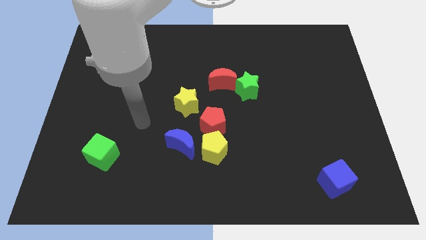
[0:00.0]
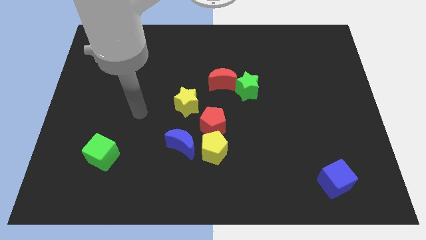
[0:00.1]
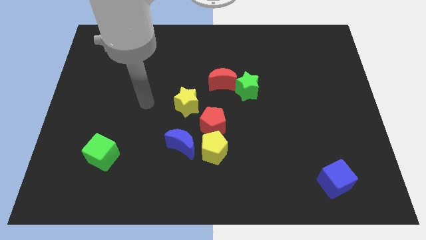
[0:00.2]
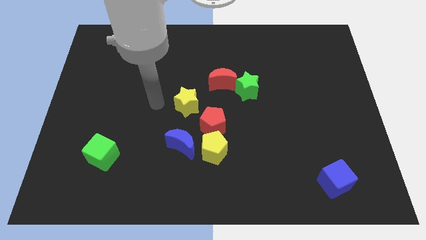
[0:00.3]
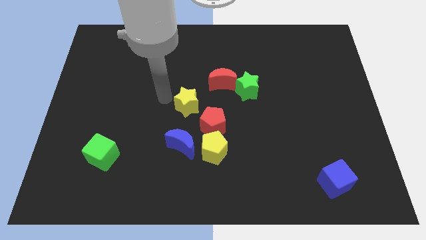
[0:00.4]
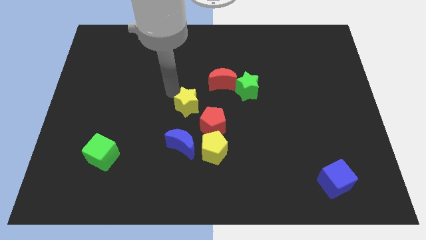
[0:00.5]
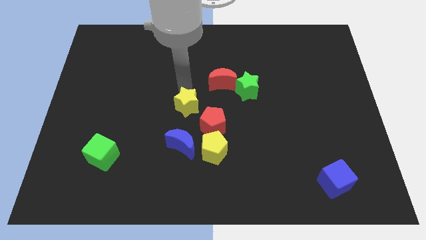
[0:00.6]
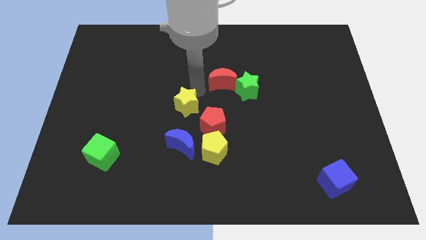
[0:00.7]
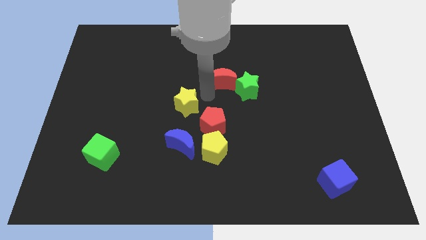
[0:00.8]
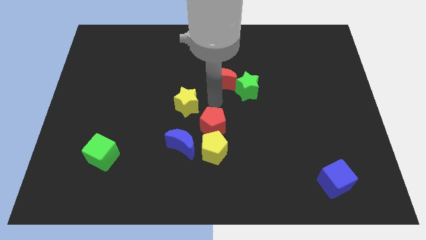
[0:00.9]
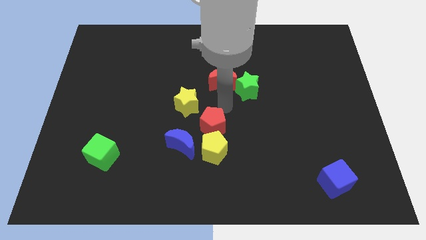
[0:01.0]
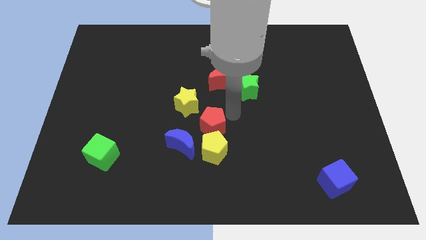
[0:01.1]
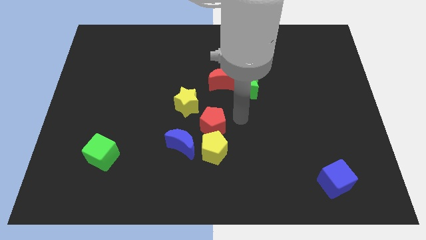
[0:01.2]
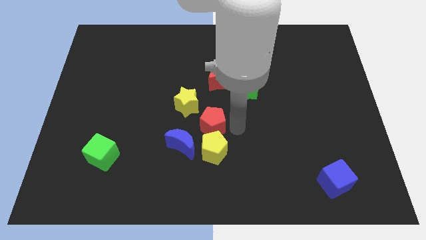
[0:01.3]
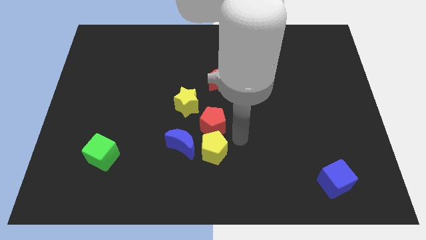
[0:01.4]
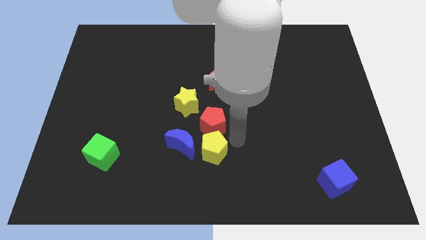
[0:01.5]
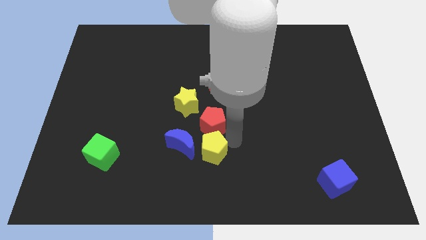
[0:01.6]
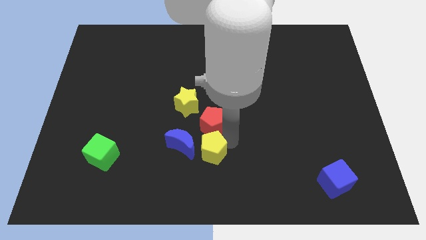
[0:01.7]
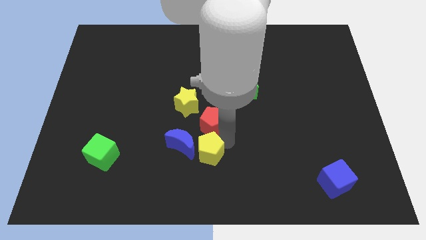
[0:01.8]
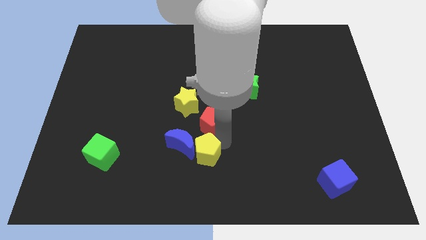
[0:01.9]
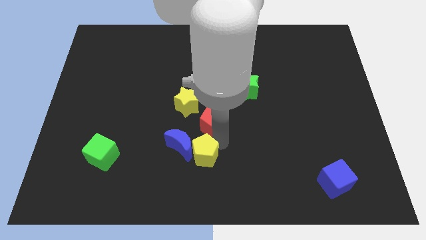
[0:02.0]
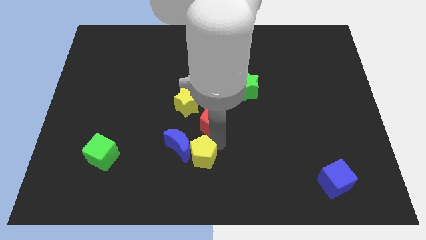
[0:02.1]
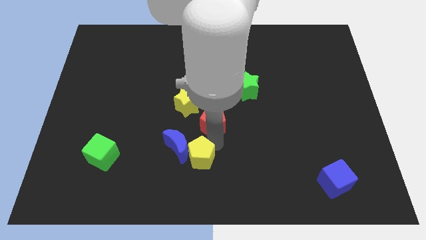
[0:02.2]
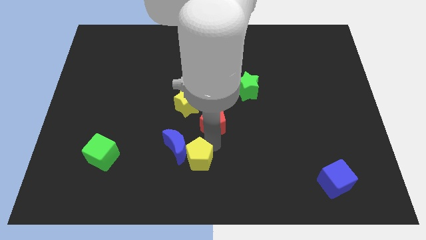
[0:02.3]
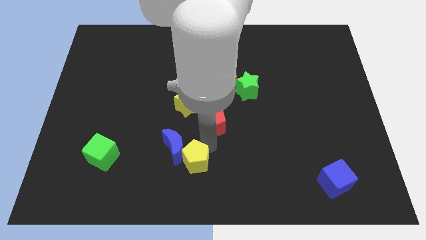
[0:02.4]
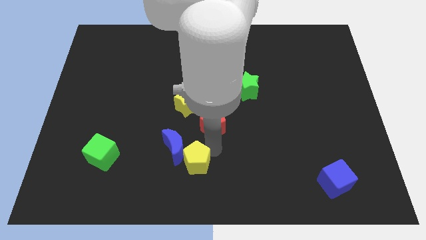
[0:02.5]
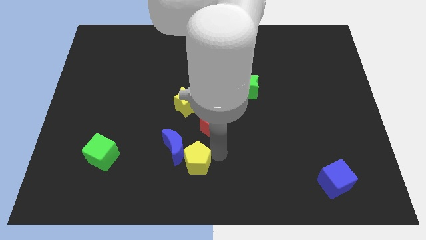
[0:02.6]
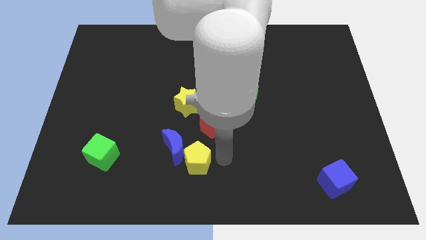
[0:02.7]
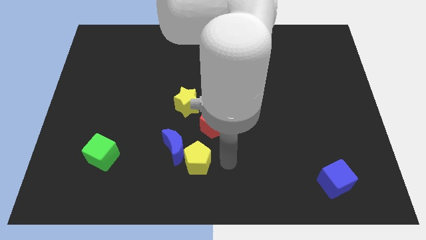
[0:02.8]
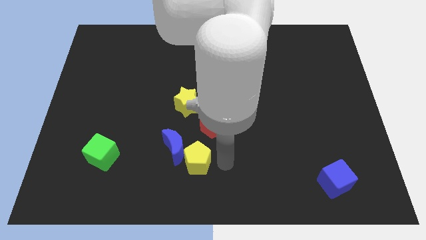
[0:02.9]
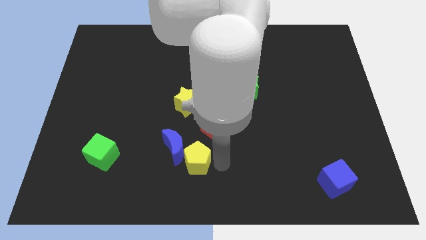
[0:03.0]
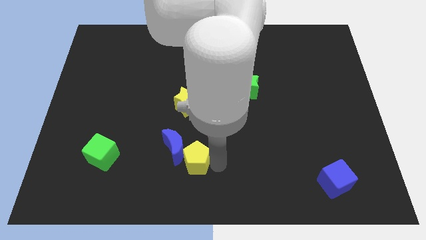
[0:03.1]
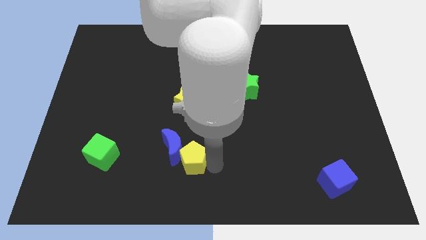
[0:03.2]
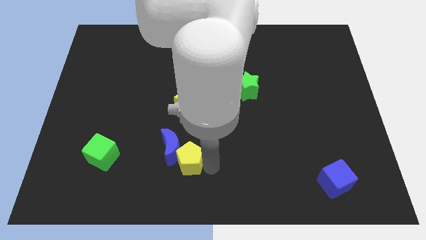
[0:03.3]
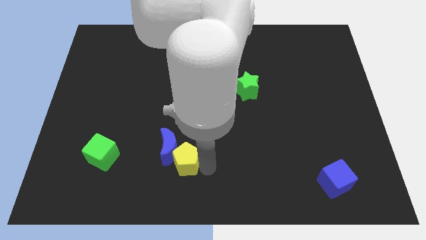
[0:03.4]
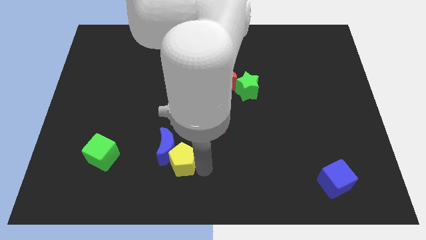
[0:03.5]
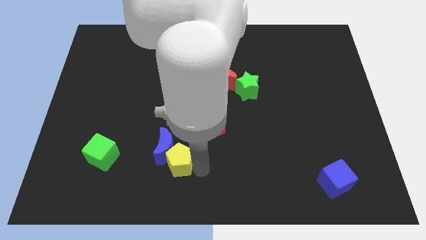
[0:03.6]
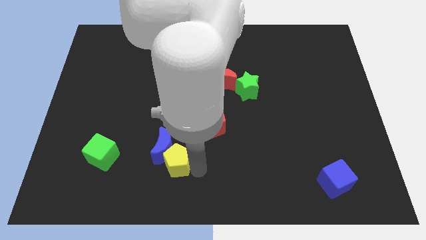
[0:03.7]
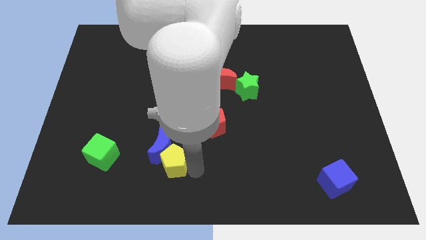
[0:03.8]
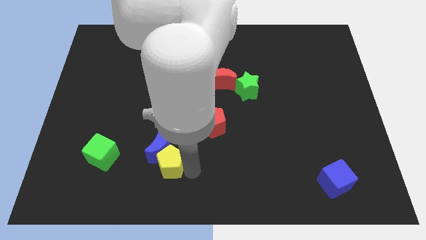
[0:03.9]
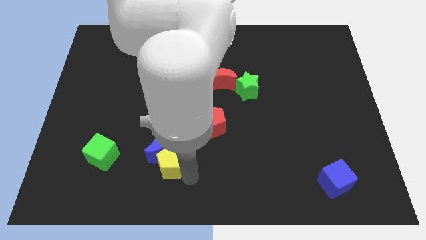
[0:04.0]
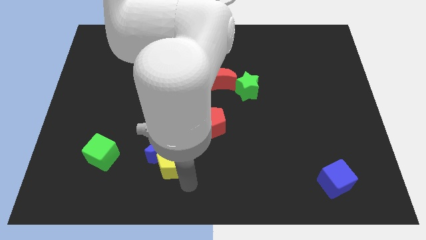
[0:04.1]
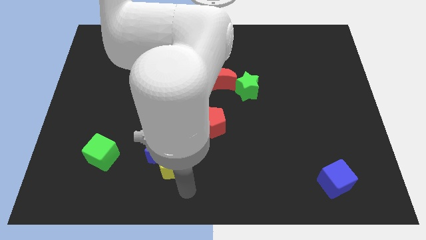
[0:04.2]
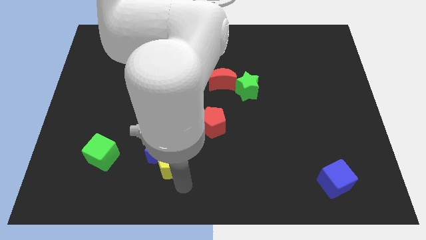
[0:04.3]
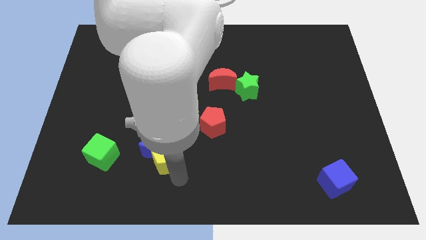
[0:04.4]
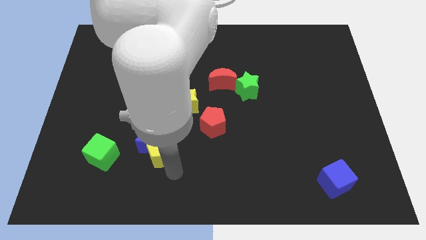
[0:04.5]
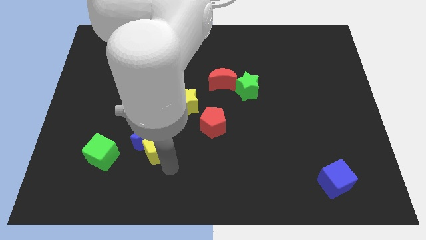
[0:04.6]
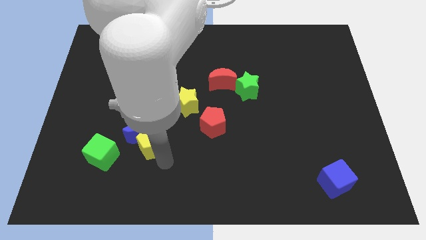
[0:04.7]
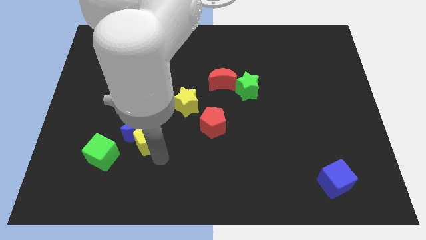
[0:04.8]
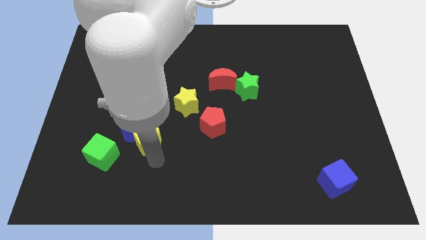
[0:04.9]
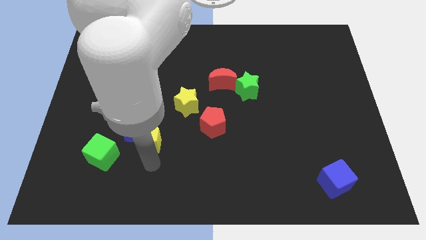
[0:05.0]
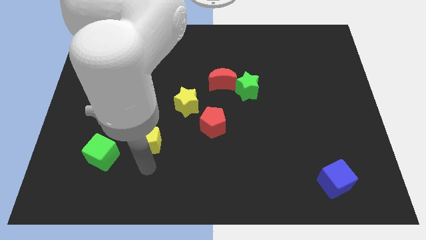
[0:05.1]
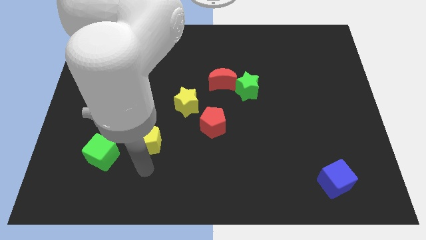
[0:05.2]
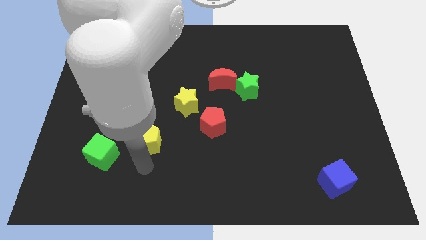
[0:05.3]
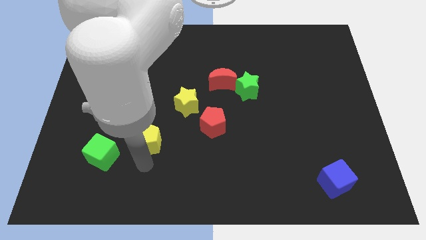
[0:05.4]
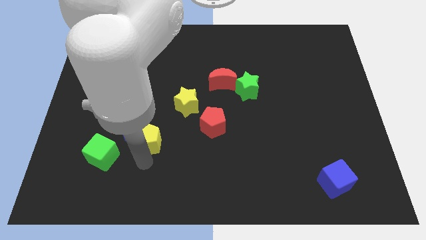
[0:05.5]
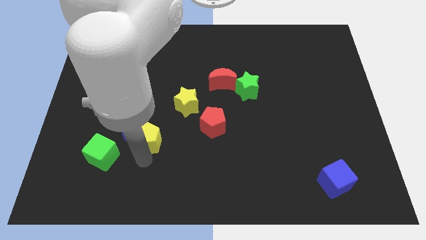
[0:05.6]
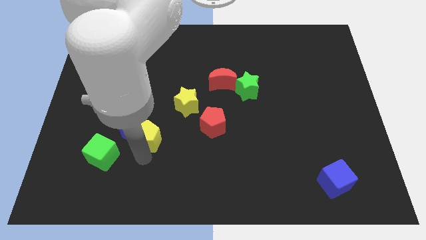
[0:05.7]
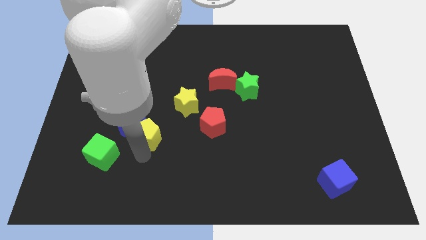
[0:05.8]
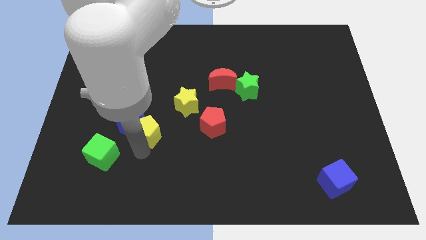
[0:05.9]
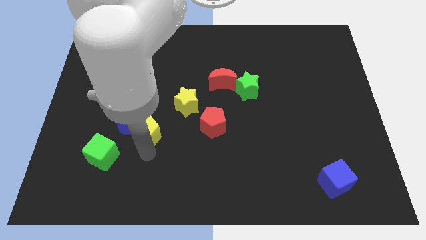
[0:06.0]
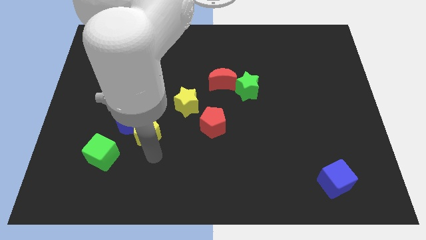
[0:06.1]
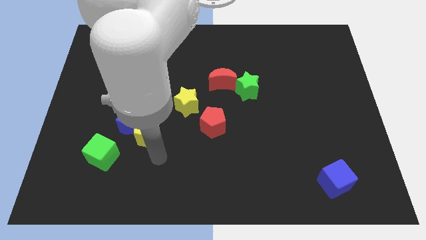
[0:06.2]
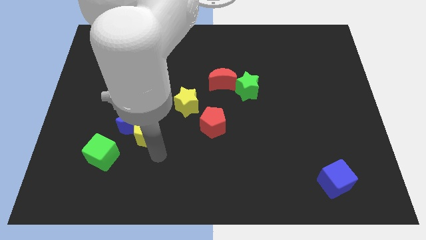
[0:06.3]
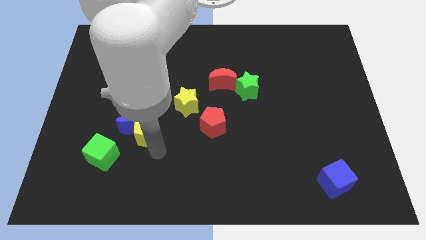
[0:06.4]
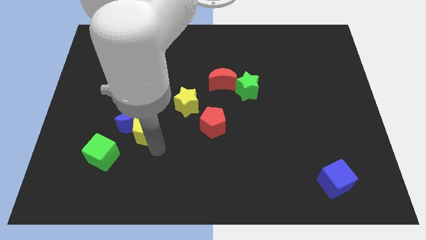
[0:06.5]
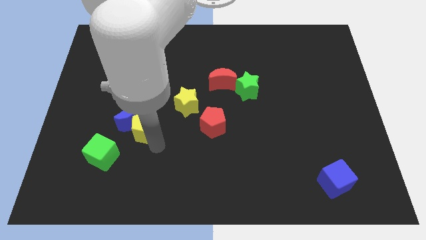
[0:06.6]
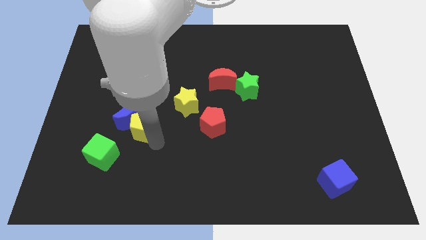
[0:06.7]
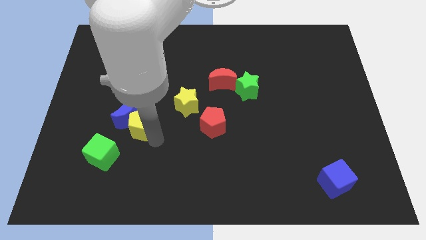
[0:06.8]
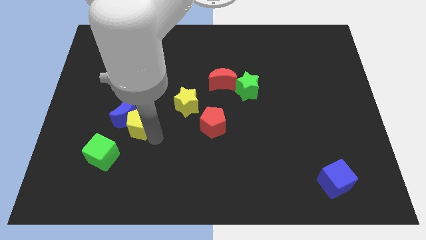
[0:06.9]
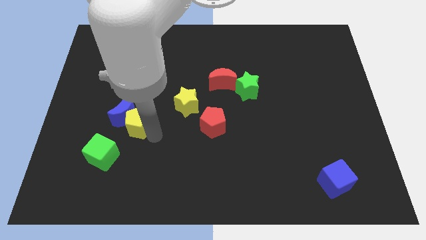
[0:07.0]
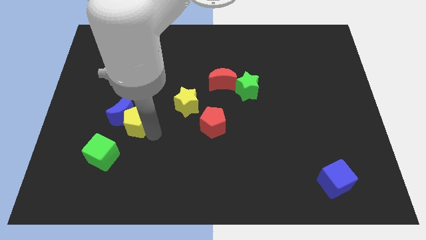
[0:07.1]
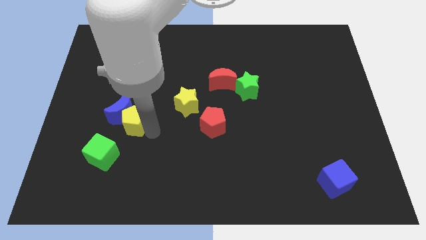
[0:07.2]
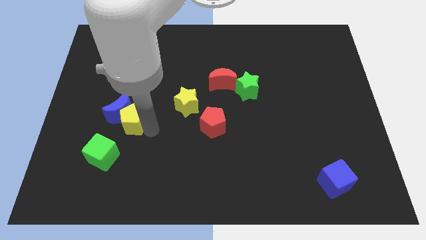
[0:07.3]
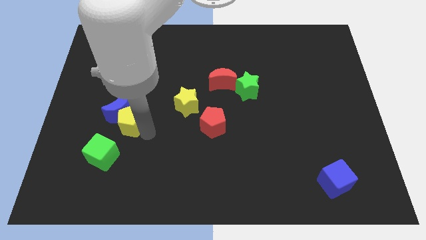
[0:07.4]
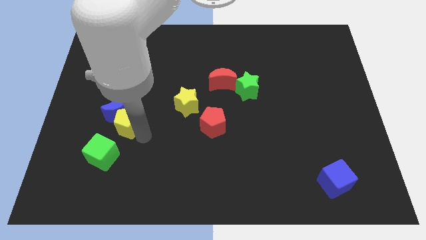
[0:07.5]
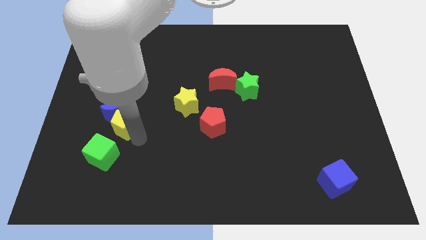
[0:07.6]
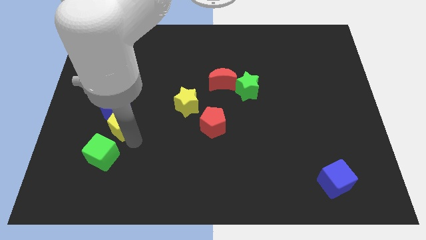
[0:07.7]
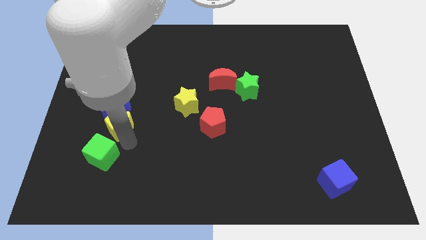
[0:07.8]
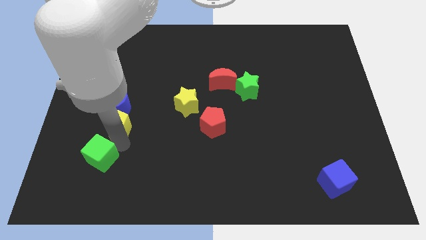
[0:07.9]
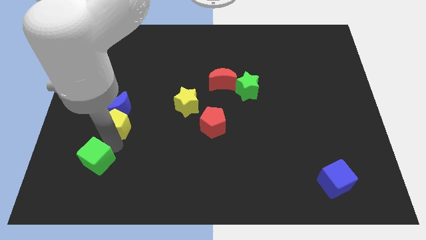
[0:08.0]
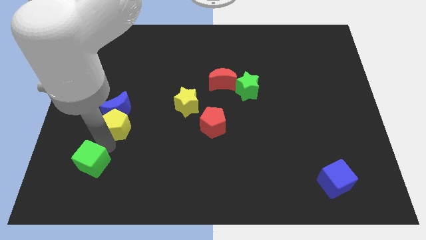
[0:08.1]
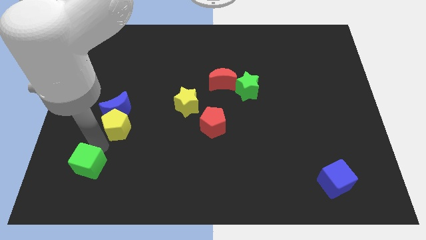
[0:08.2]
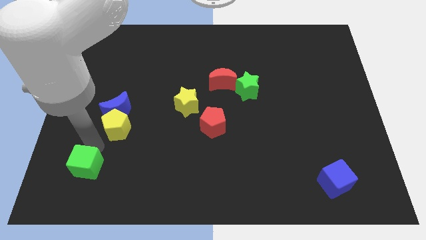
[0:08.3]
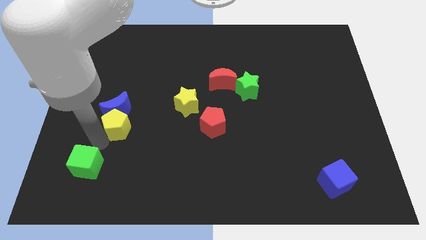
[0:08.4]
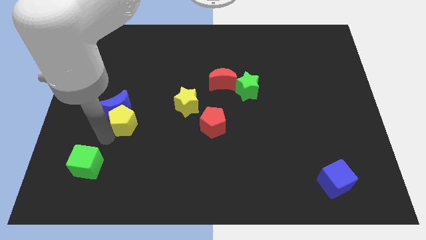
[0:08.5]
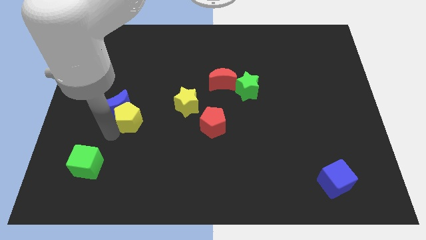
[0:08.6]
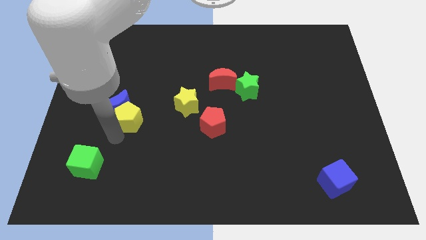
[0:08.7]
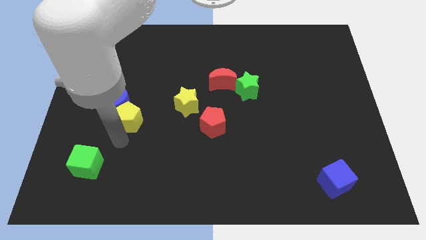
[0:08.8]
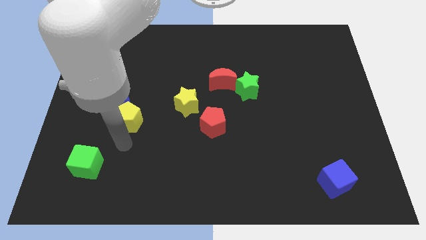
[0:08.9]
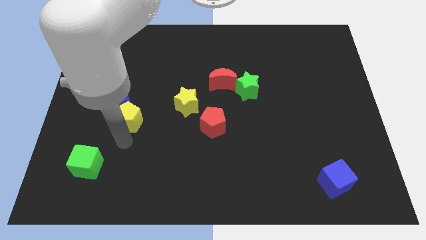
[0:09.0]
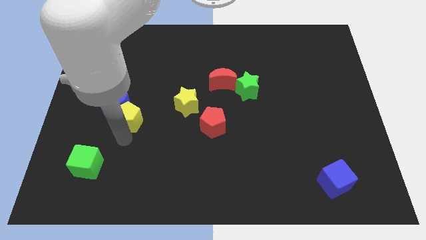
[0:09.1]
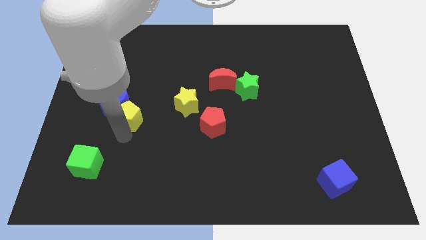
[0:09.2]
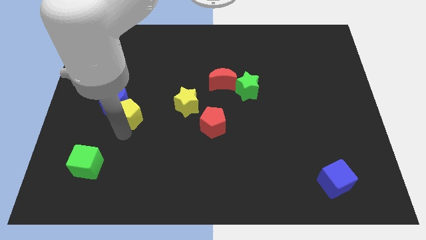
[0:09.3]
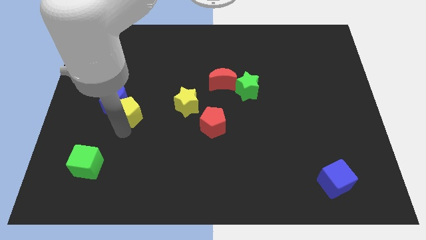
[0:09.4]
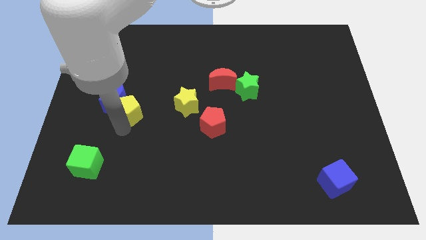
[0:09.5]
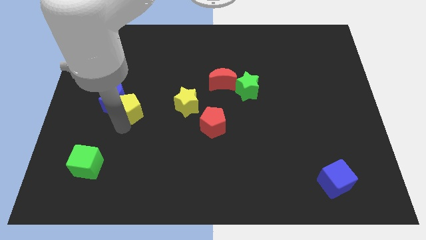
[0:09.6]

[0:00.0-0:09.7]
push the yellow pentagon up and then to the left
